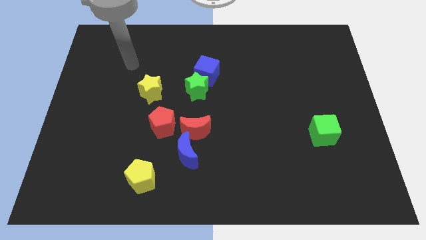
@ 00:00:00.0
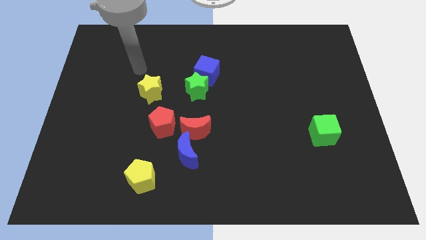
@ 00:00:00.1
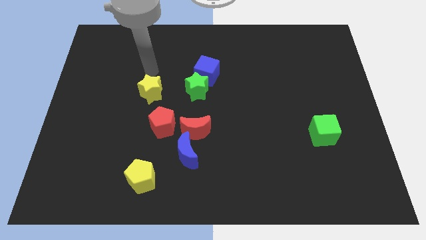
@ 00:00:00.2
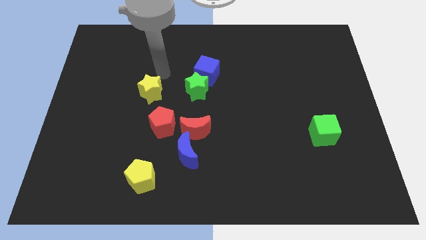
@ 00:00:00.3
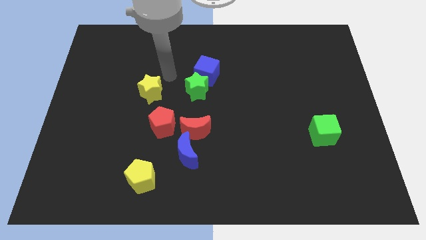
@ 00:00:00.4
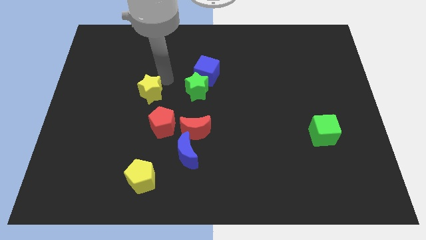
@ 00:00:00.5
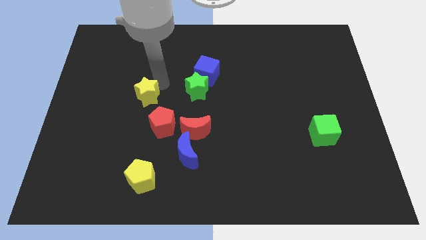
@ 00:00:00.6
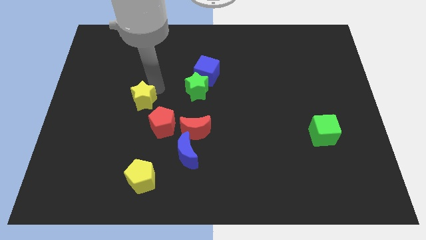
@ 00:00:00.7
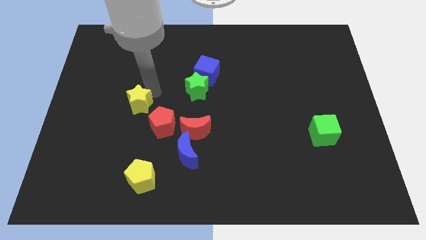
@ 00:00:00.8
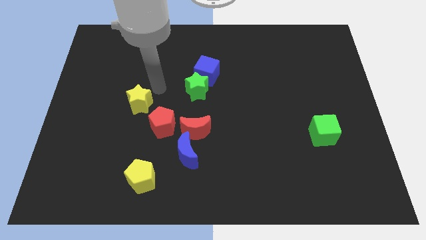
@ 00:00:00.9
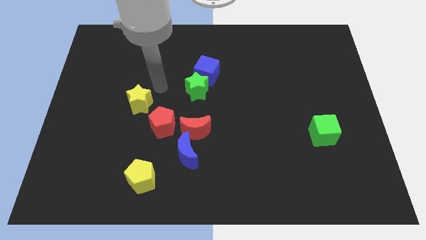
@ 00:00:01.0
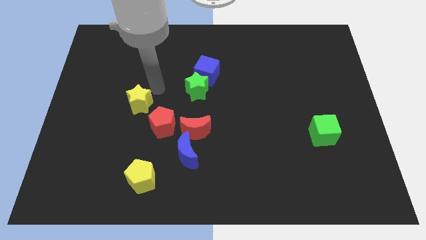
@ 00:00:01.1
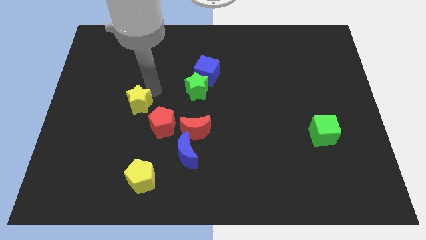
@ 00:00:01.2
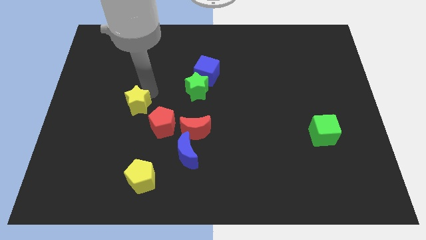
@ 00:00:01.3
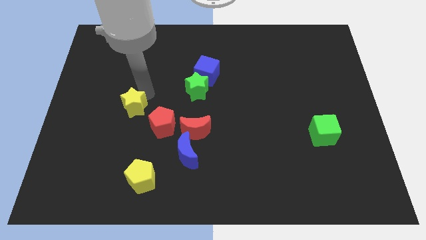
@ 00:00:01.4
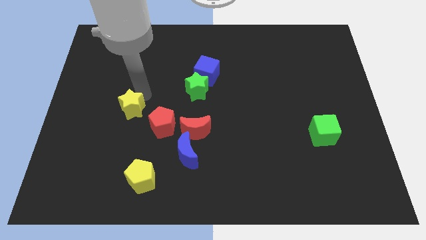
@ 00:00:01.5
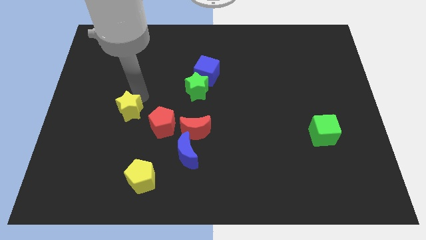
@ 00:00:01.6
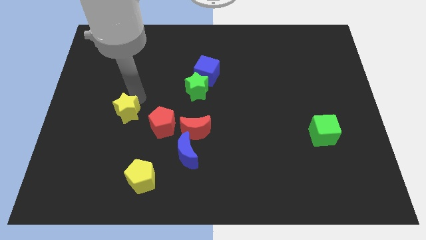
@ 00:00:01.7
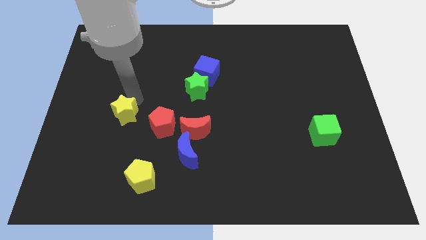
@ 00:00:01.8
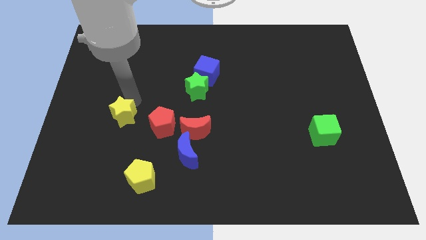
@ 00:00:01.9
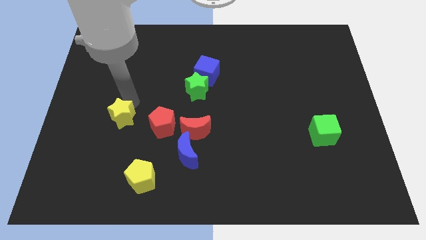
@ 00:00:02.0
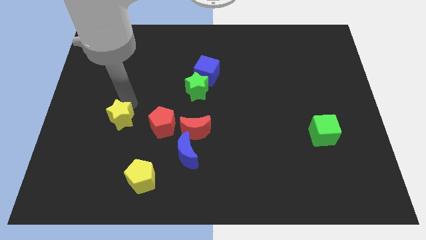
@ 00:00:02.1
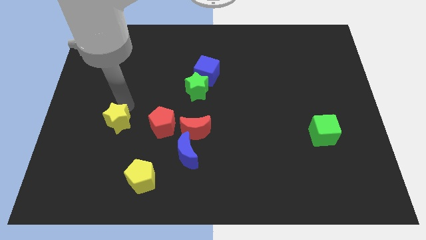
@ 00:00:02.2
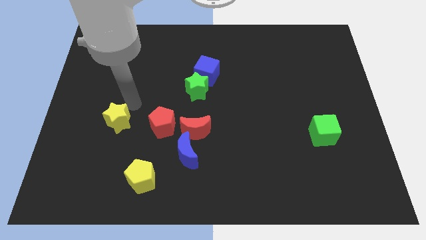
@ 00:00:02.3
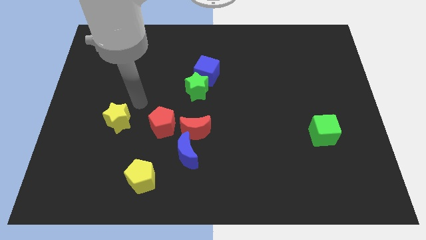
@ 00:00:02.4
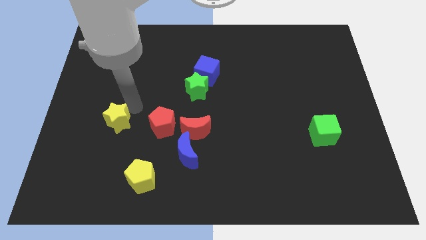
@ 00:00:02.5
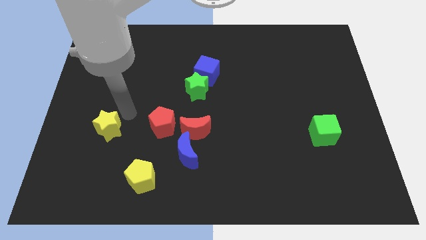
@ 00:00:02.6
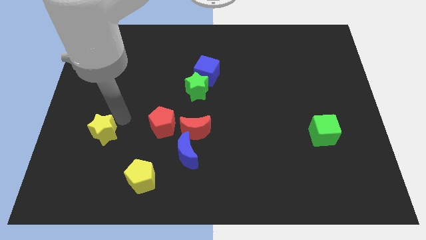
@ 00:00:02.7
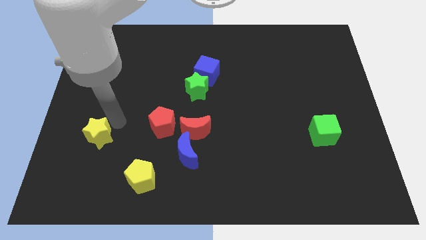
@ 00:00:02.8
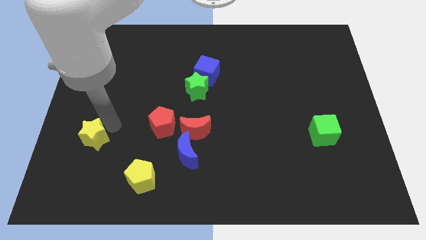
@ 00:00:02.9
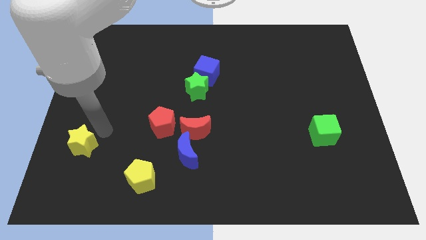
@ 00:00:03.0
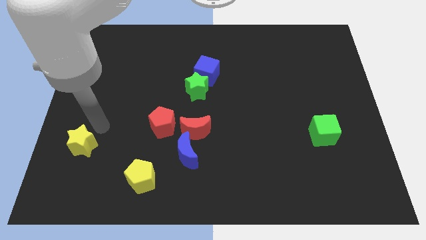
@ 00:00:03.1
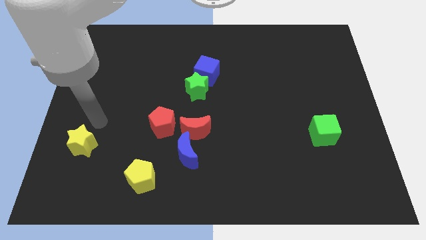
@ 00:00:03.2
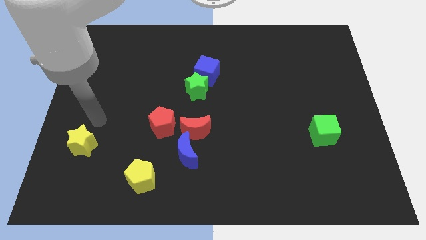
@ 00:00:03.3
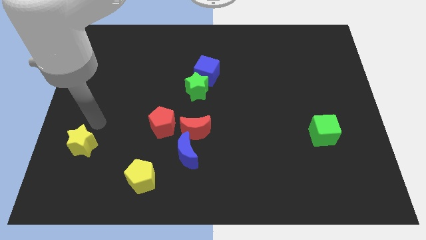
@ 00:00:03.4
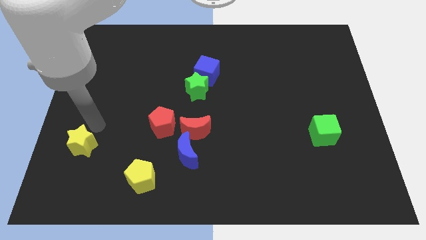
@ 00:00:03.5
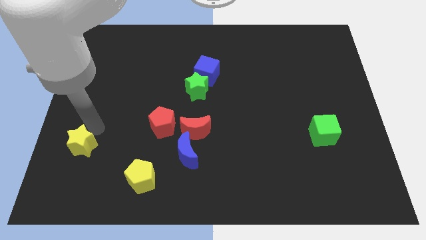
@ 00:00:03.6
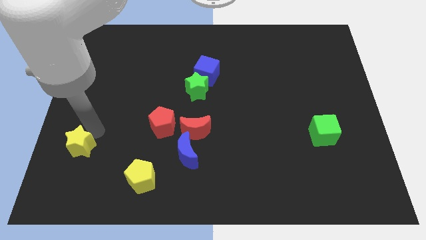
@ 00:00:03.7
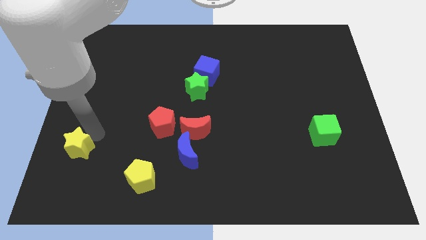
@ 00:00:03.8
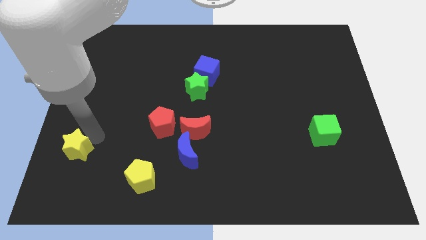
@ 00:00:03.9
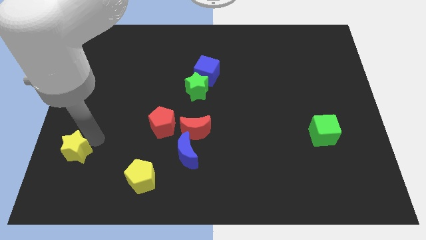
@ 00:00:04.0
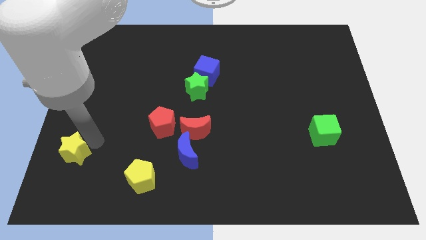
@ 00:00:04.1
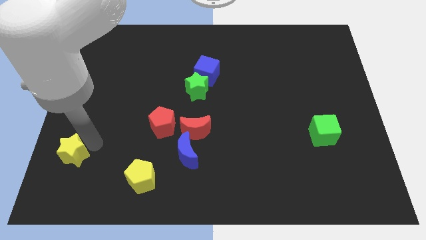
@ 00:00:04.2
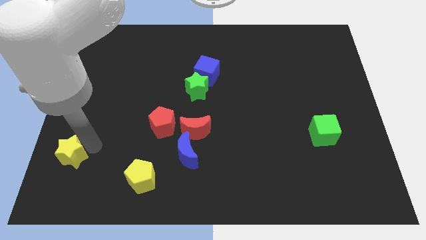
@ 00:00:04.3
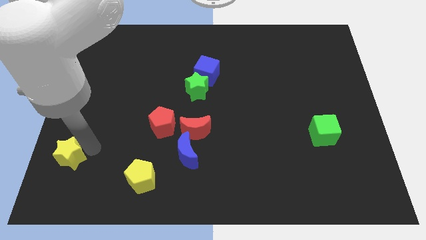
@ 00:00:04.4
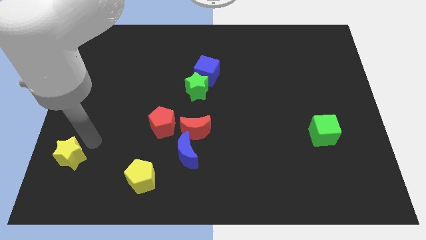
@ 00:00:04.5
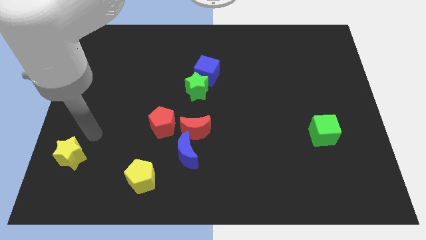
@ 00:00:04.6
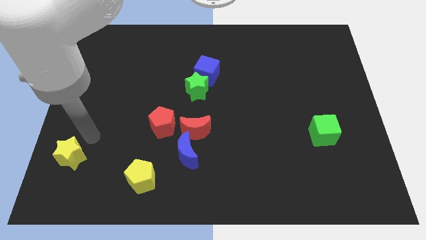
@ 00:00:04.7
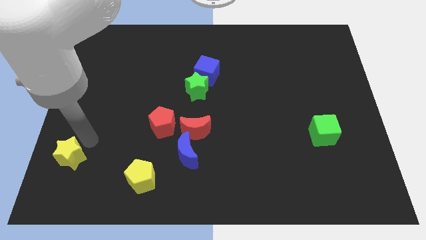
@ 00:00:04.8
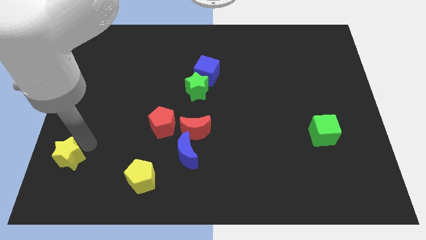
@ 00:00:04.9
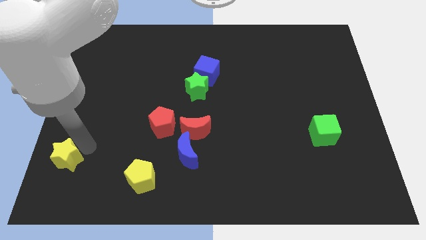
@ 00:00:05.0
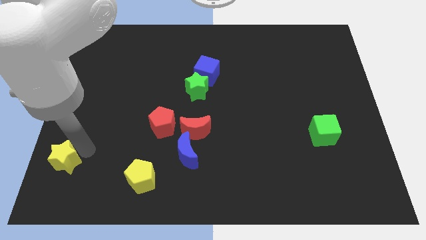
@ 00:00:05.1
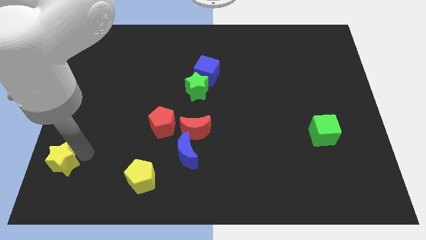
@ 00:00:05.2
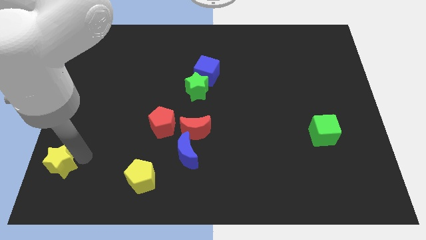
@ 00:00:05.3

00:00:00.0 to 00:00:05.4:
push the yellow star to the bottom left
